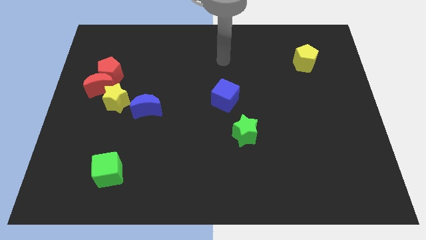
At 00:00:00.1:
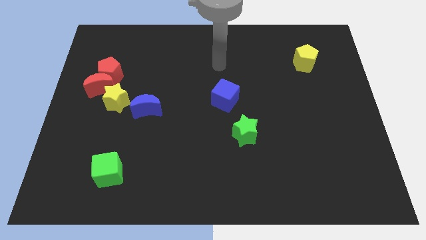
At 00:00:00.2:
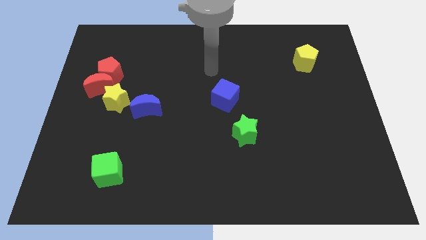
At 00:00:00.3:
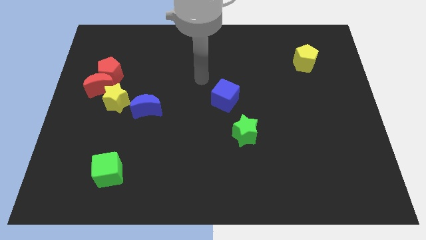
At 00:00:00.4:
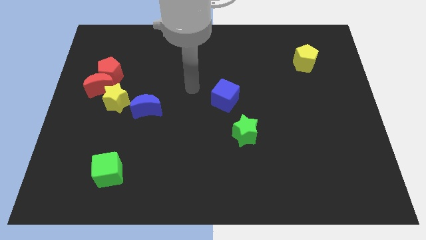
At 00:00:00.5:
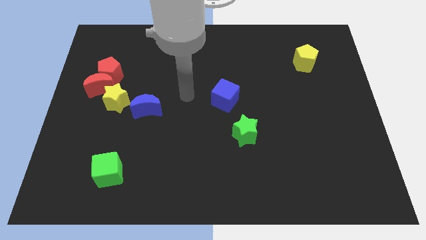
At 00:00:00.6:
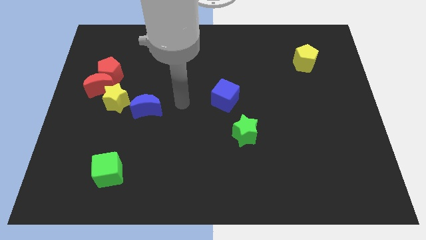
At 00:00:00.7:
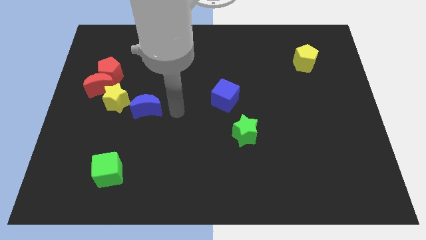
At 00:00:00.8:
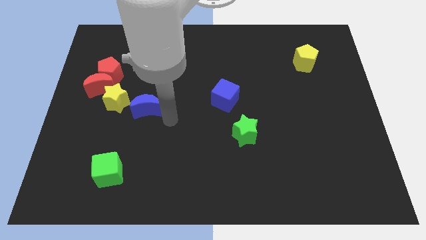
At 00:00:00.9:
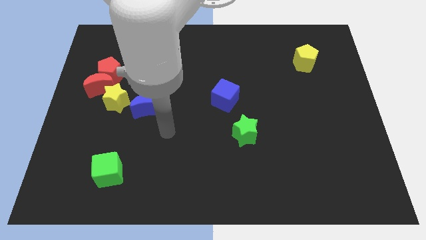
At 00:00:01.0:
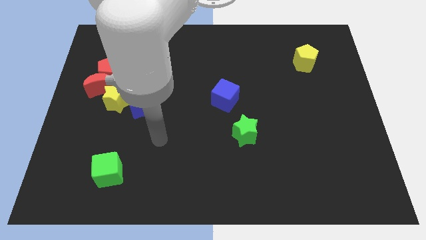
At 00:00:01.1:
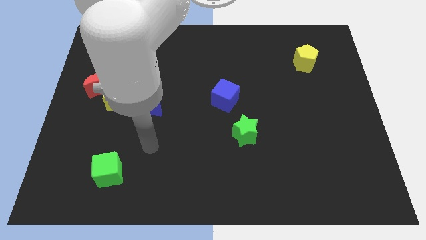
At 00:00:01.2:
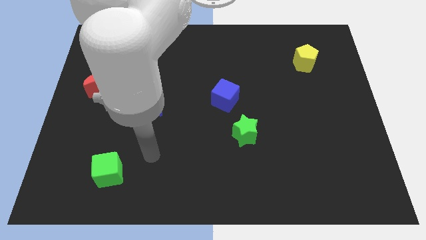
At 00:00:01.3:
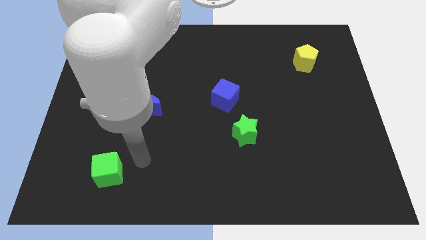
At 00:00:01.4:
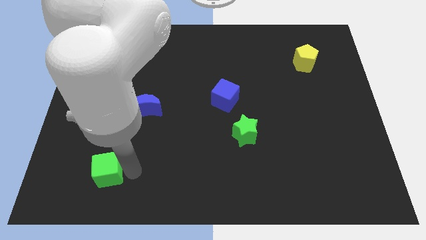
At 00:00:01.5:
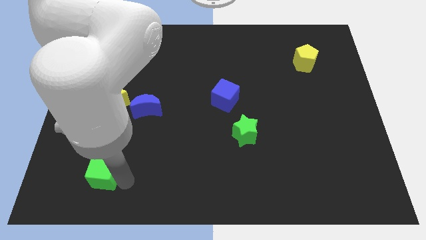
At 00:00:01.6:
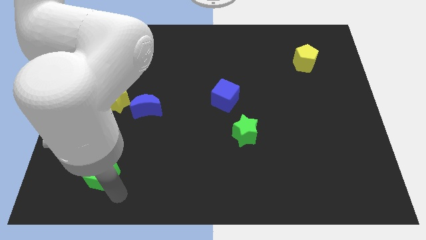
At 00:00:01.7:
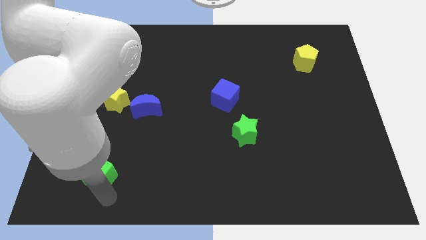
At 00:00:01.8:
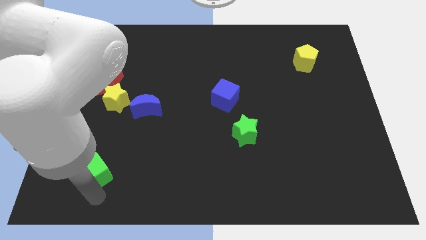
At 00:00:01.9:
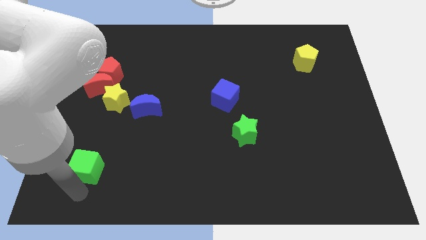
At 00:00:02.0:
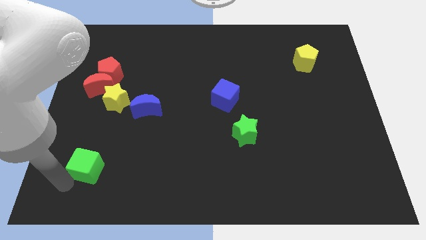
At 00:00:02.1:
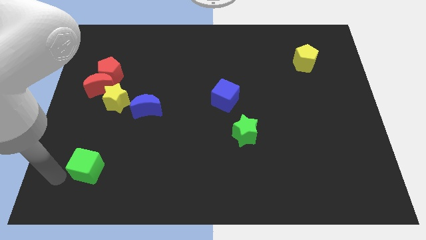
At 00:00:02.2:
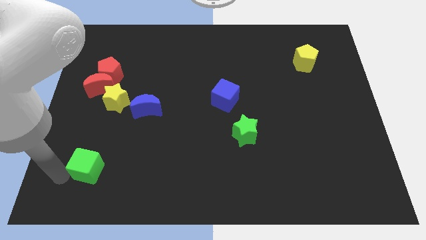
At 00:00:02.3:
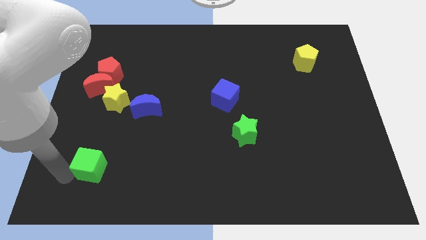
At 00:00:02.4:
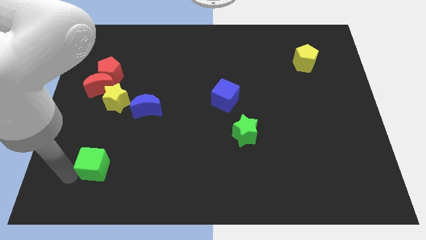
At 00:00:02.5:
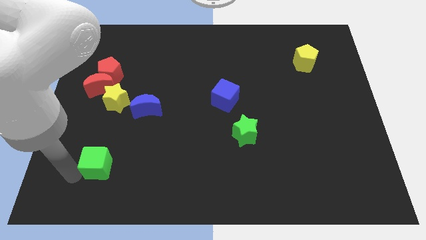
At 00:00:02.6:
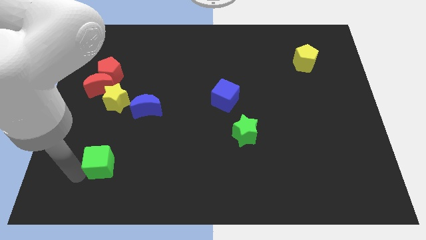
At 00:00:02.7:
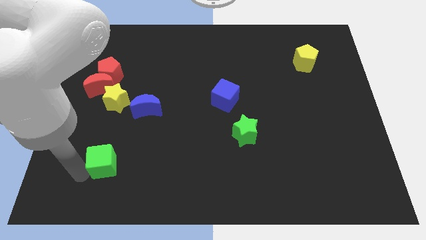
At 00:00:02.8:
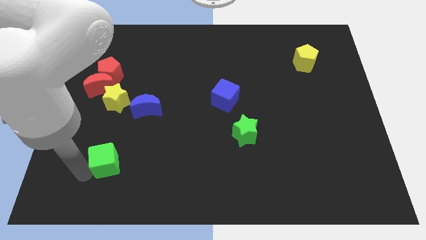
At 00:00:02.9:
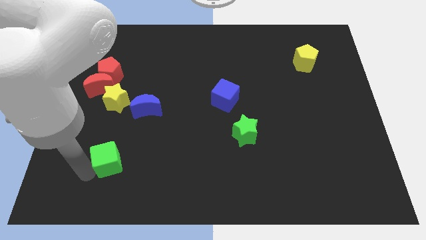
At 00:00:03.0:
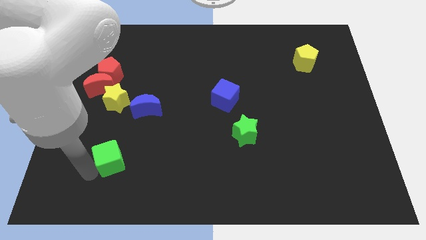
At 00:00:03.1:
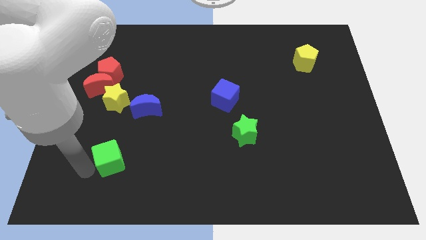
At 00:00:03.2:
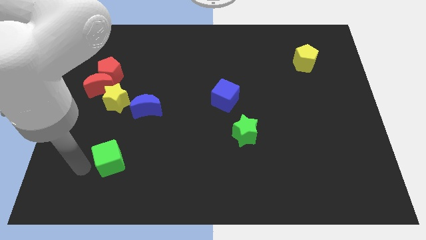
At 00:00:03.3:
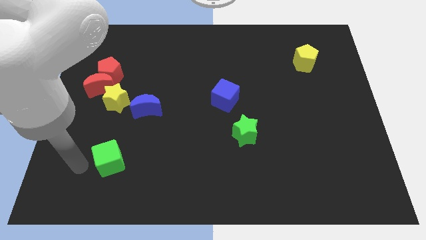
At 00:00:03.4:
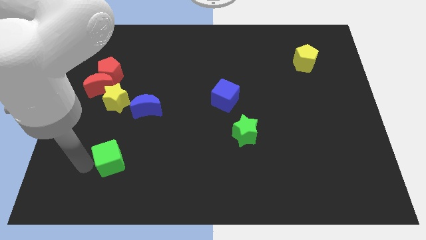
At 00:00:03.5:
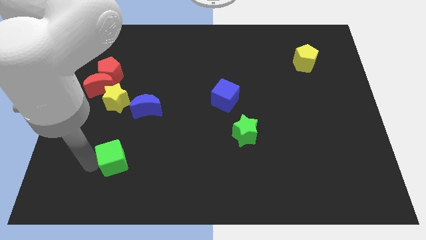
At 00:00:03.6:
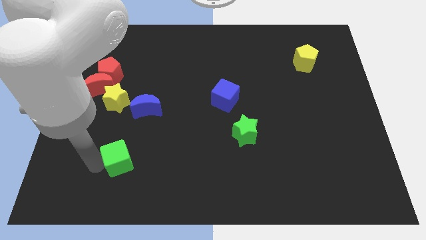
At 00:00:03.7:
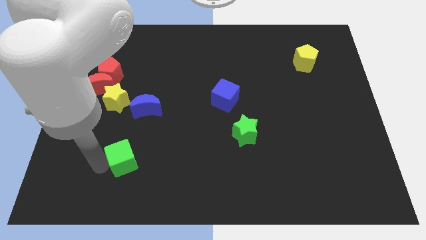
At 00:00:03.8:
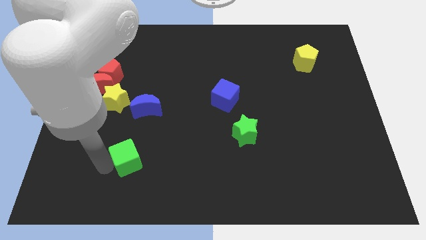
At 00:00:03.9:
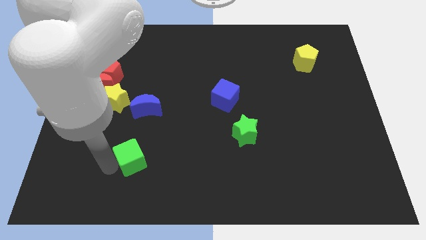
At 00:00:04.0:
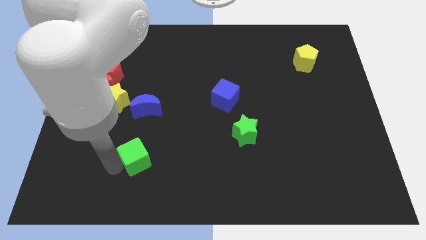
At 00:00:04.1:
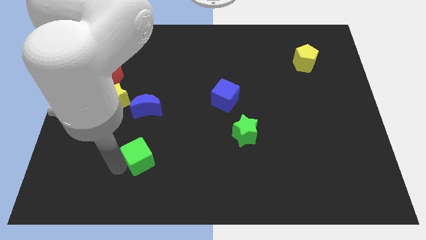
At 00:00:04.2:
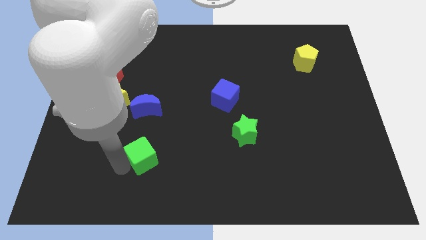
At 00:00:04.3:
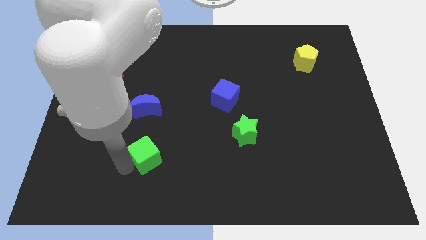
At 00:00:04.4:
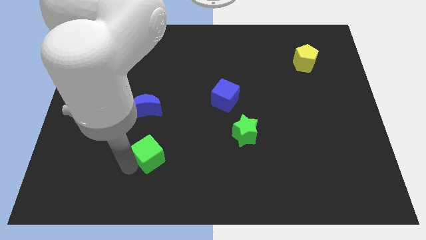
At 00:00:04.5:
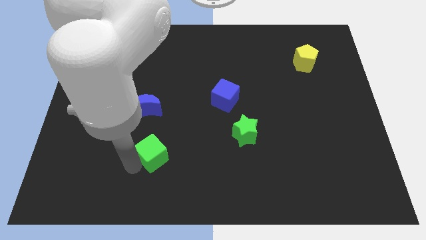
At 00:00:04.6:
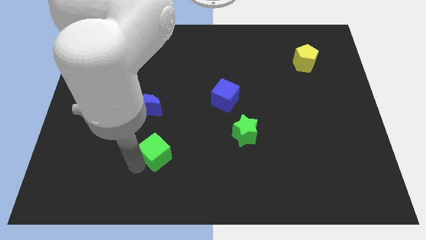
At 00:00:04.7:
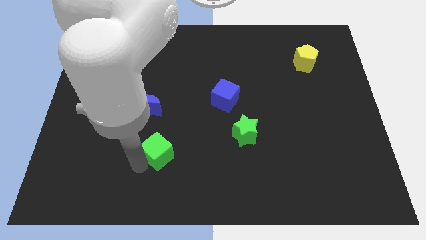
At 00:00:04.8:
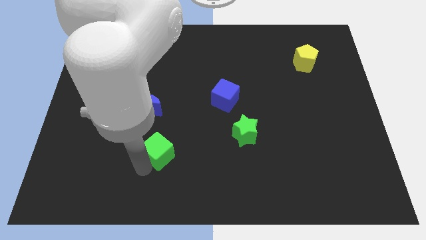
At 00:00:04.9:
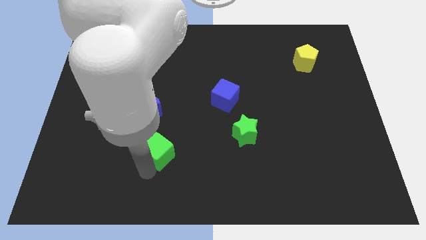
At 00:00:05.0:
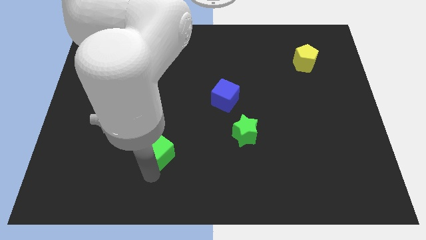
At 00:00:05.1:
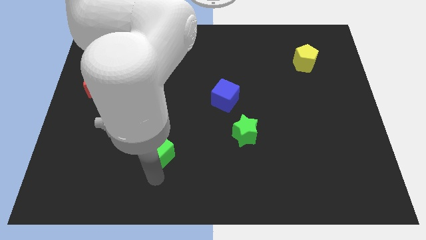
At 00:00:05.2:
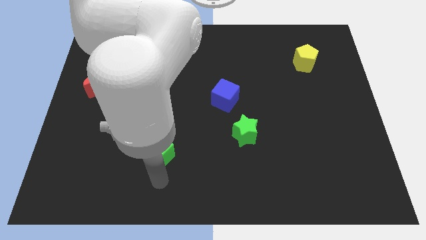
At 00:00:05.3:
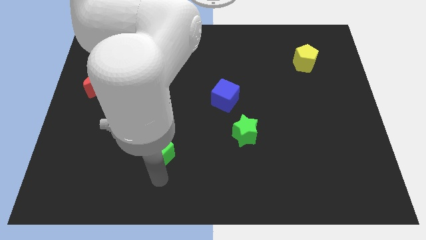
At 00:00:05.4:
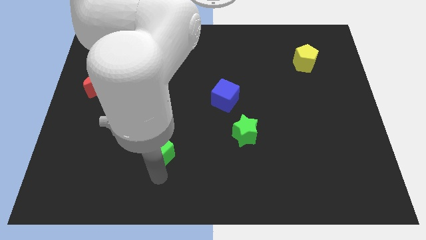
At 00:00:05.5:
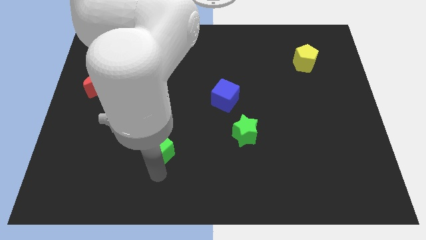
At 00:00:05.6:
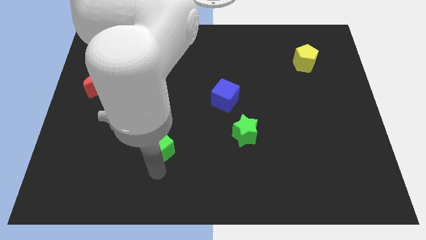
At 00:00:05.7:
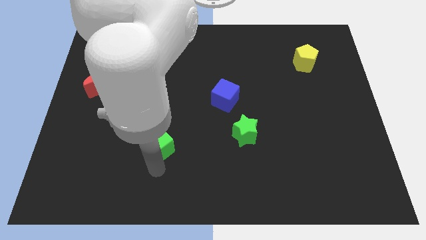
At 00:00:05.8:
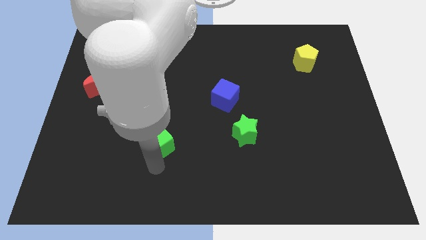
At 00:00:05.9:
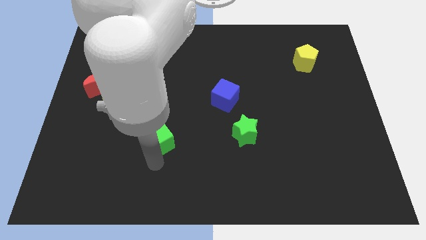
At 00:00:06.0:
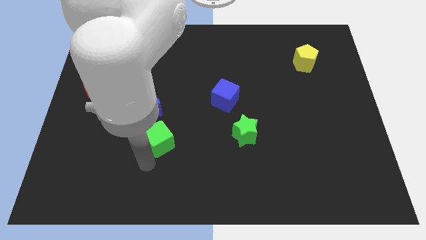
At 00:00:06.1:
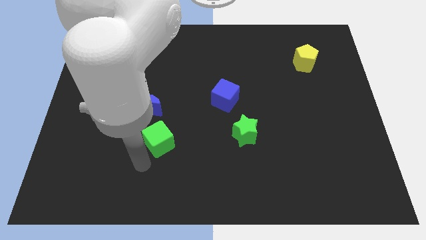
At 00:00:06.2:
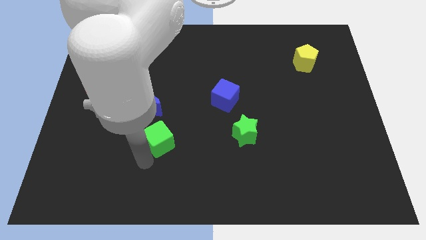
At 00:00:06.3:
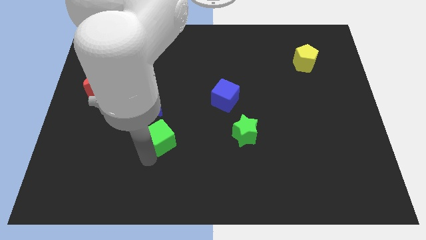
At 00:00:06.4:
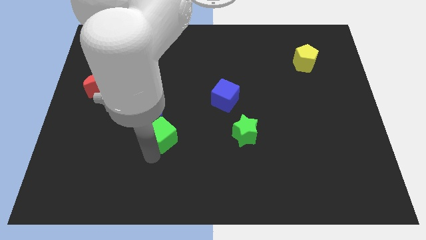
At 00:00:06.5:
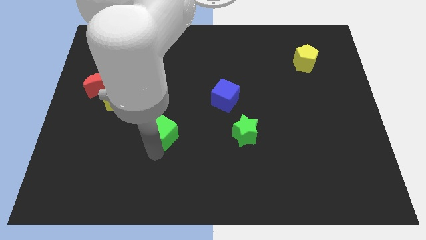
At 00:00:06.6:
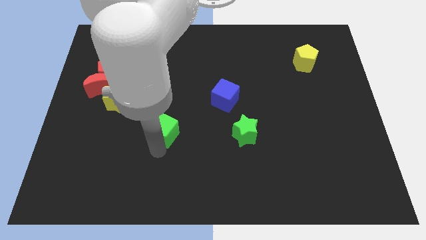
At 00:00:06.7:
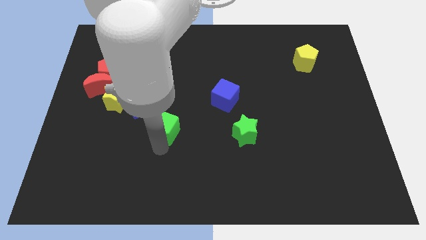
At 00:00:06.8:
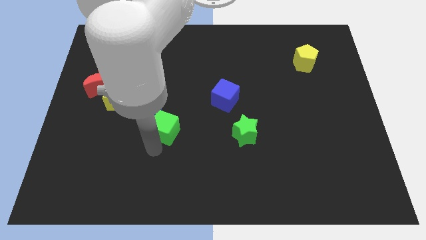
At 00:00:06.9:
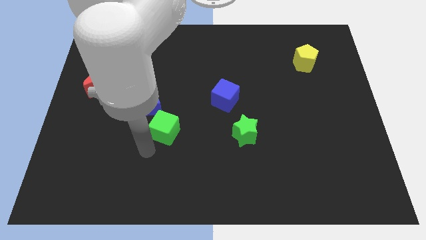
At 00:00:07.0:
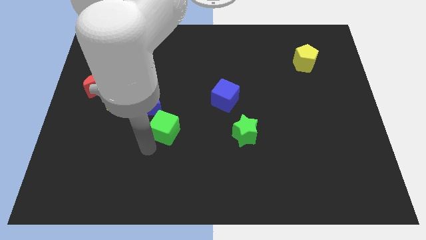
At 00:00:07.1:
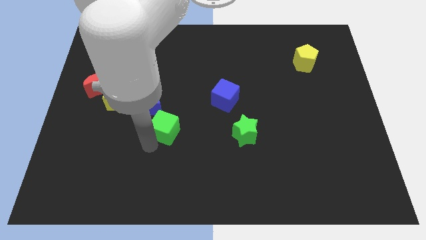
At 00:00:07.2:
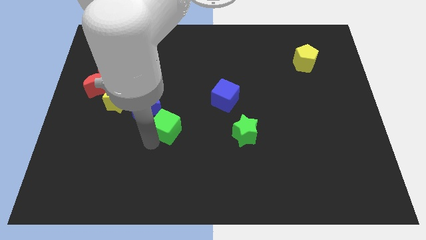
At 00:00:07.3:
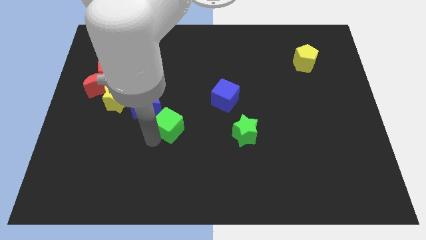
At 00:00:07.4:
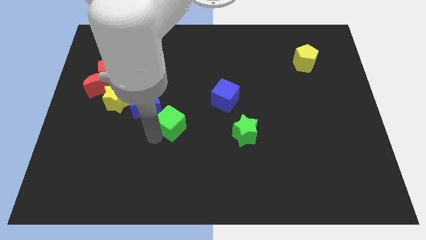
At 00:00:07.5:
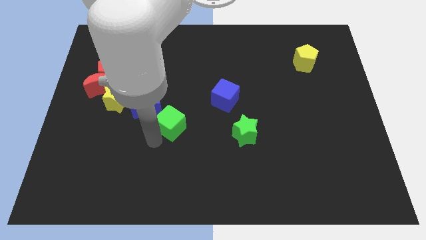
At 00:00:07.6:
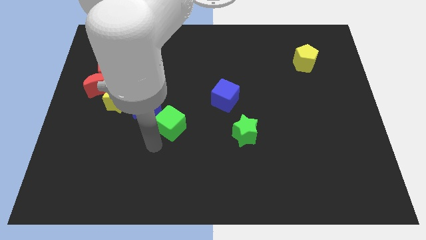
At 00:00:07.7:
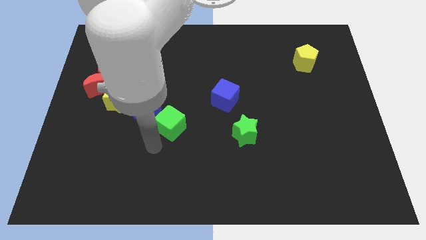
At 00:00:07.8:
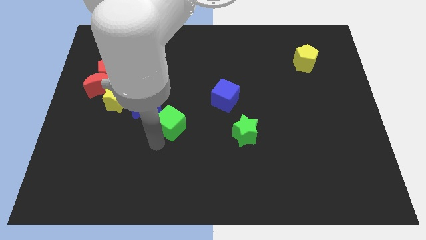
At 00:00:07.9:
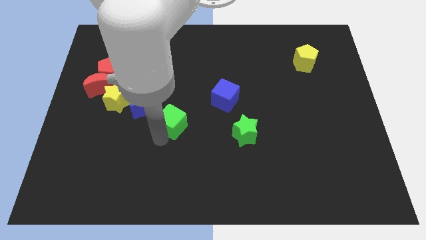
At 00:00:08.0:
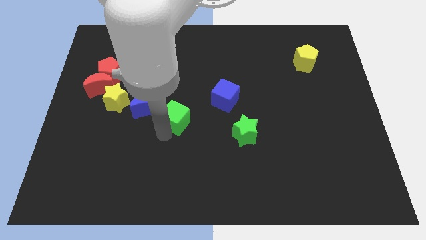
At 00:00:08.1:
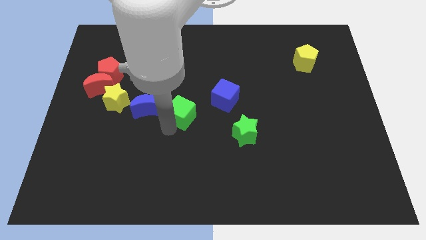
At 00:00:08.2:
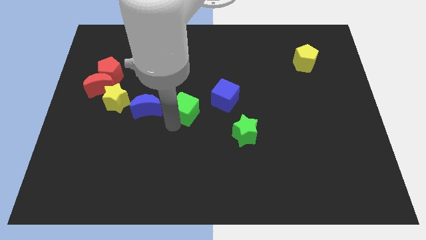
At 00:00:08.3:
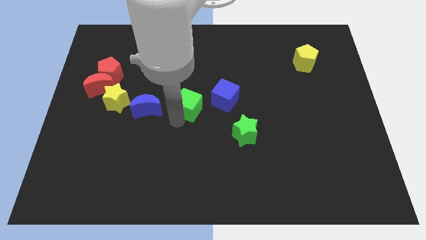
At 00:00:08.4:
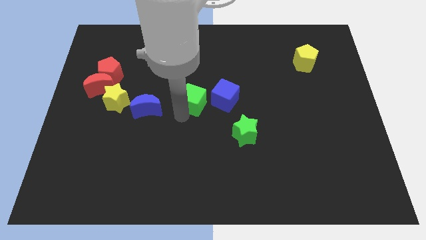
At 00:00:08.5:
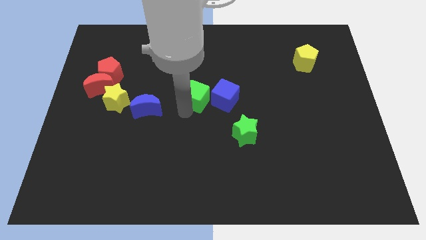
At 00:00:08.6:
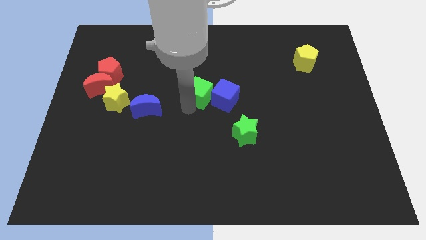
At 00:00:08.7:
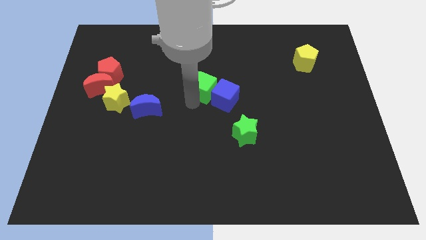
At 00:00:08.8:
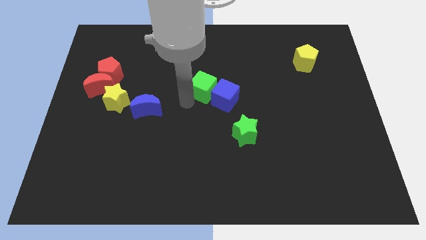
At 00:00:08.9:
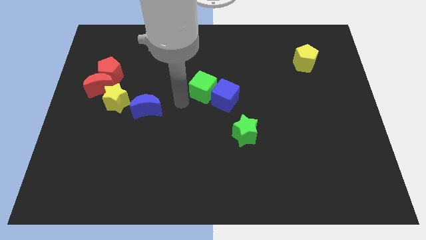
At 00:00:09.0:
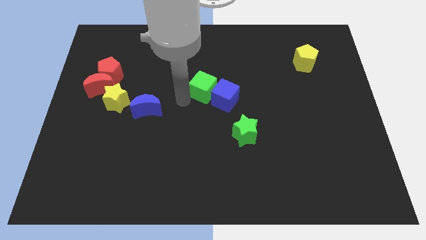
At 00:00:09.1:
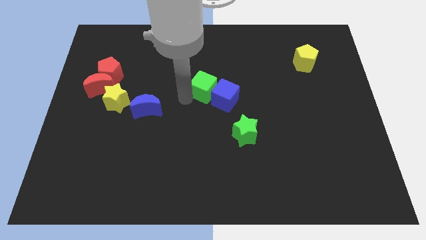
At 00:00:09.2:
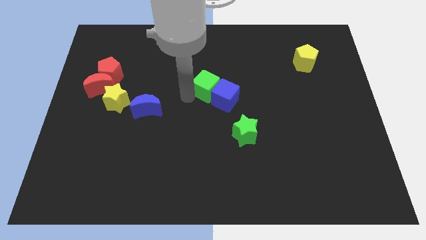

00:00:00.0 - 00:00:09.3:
put the green cube to the top side of the blue cube
